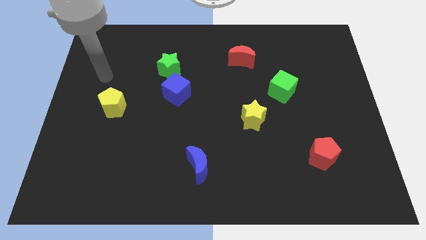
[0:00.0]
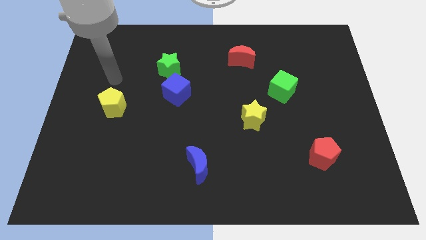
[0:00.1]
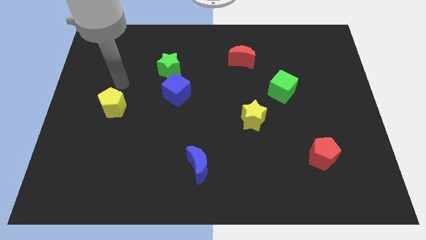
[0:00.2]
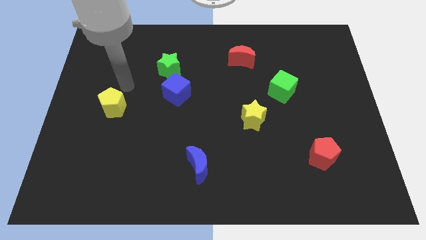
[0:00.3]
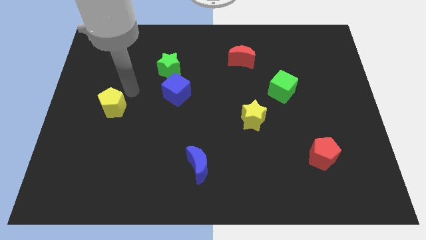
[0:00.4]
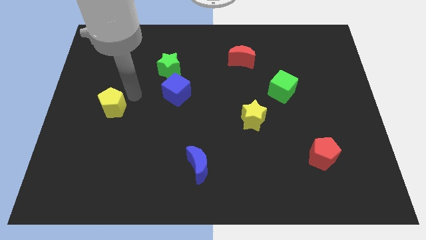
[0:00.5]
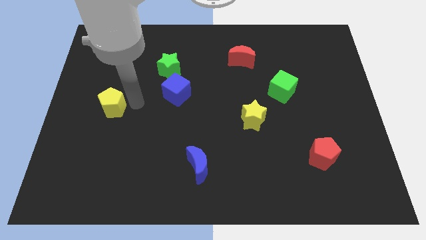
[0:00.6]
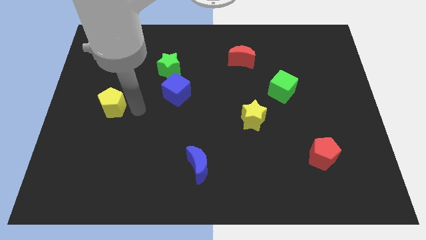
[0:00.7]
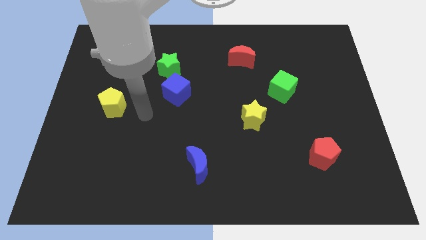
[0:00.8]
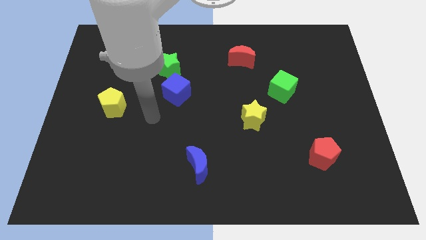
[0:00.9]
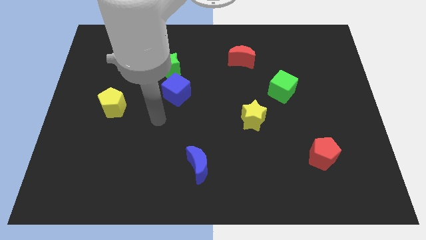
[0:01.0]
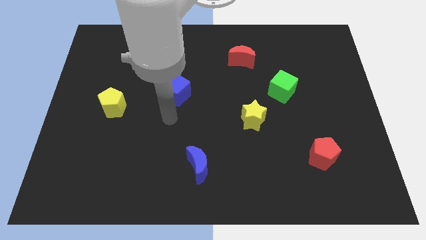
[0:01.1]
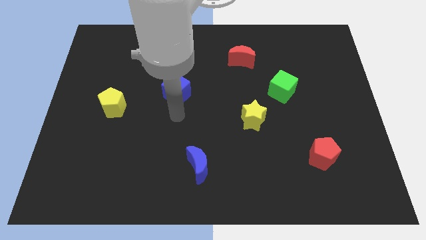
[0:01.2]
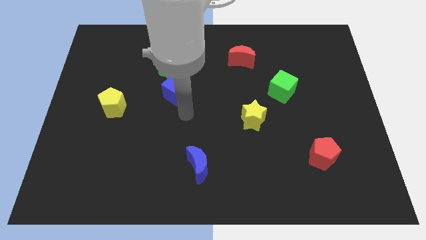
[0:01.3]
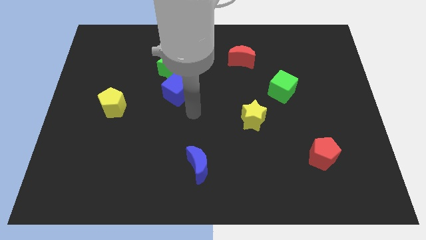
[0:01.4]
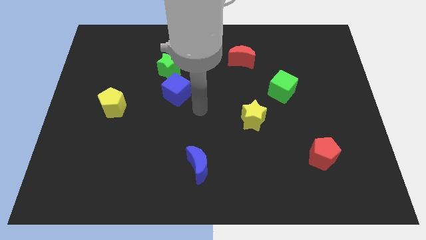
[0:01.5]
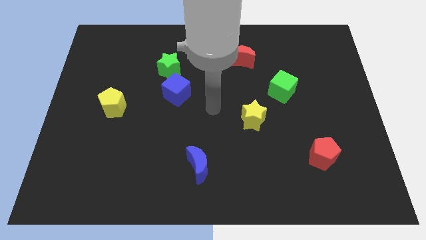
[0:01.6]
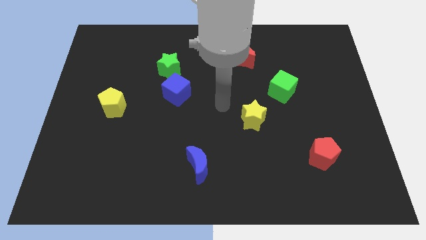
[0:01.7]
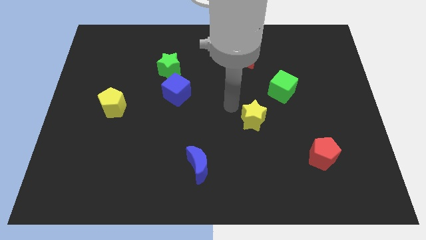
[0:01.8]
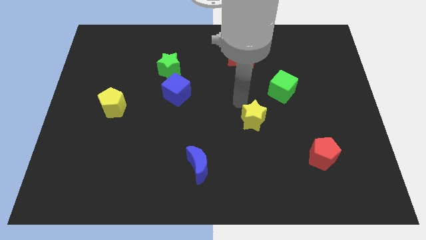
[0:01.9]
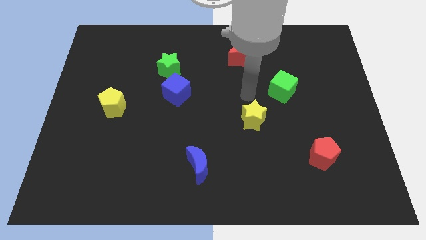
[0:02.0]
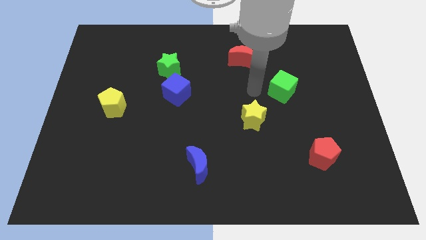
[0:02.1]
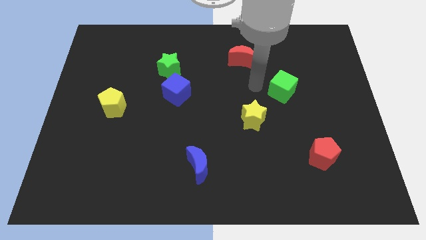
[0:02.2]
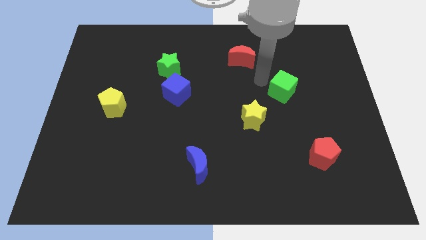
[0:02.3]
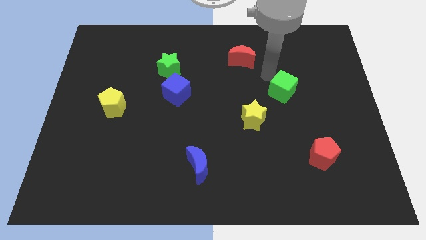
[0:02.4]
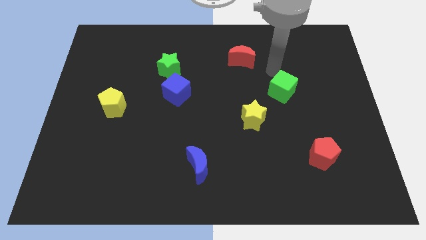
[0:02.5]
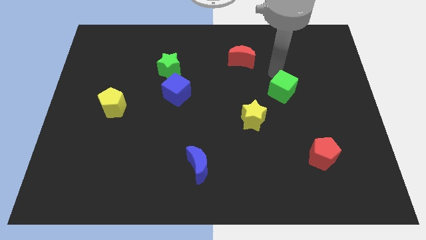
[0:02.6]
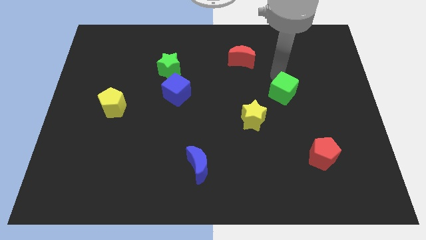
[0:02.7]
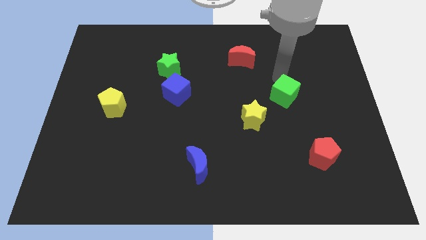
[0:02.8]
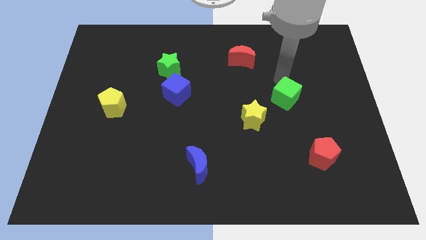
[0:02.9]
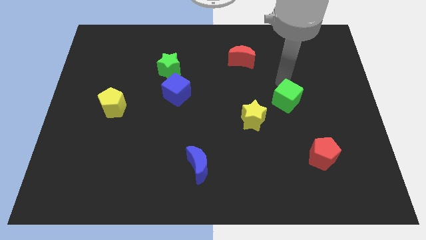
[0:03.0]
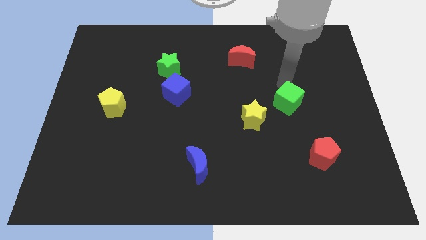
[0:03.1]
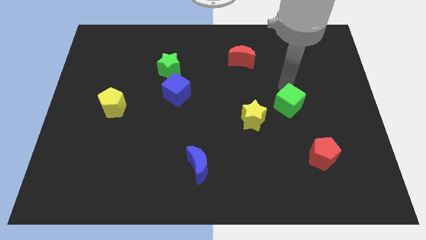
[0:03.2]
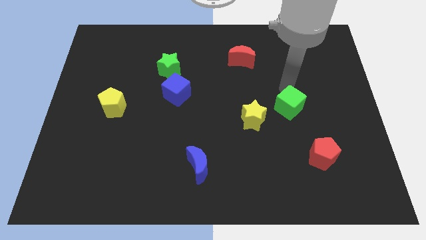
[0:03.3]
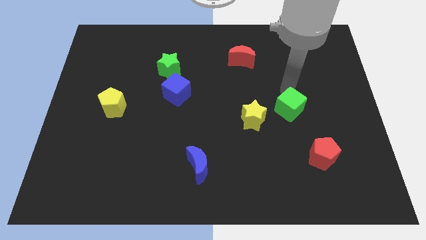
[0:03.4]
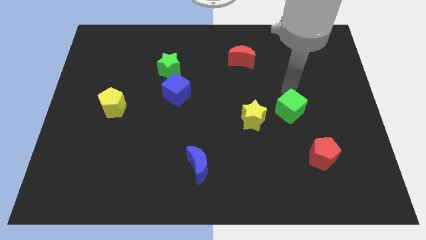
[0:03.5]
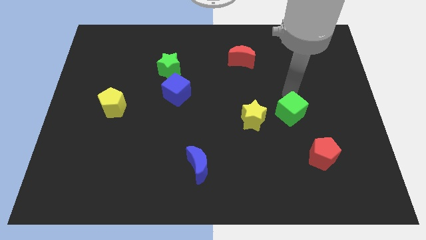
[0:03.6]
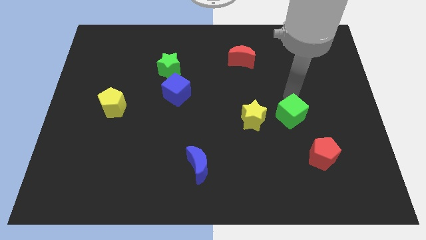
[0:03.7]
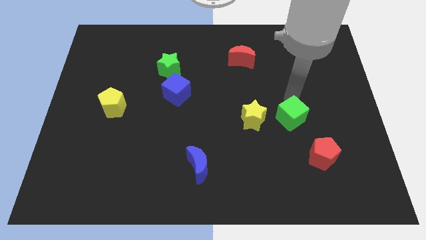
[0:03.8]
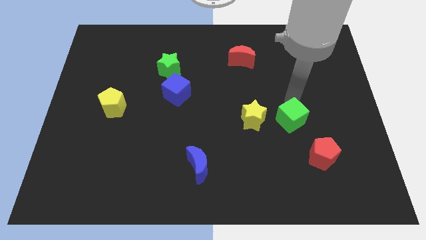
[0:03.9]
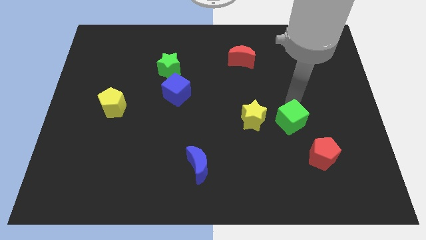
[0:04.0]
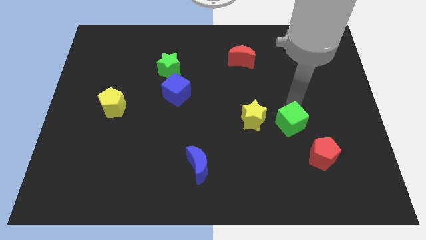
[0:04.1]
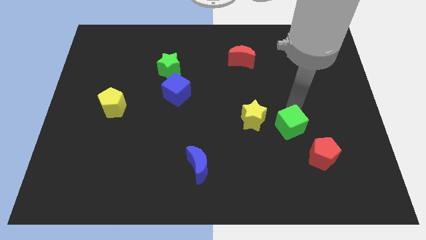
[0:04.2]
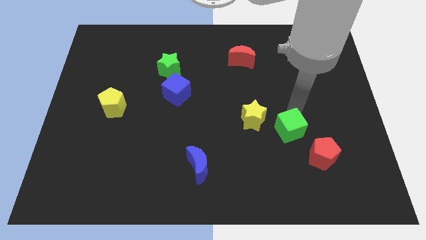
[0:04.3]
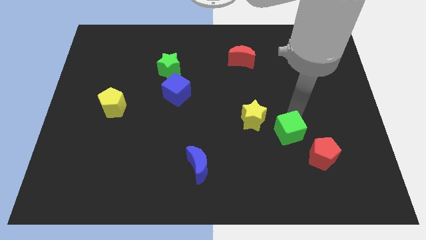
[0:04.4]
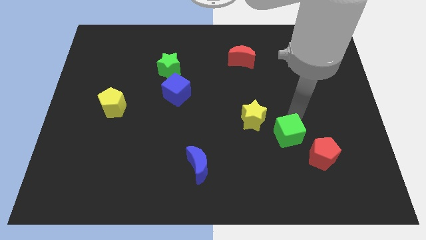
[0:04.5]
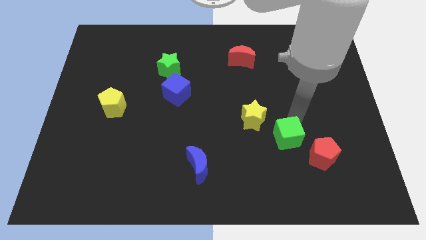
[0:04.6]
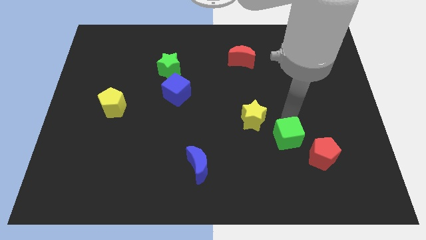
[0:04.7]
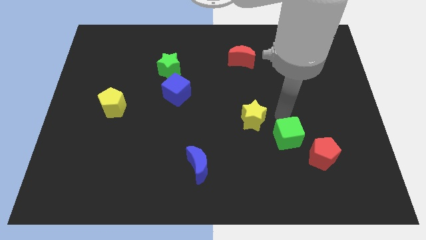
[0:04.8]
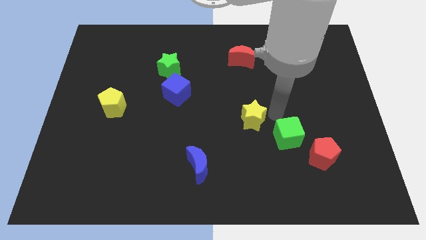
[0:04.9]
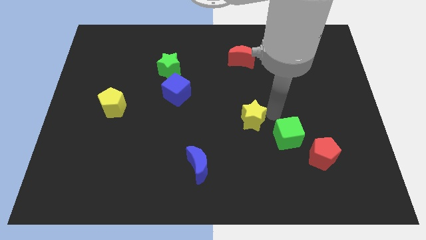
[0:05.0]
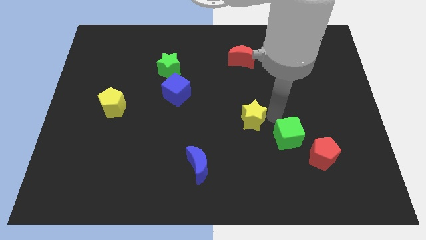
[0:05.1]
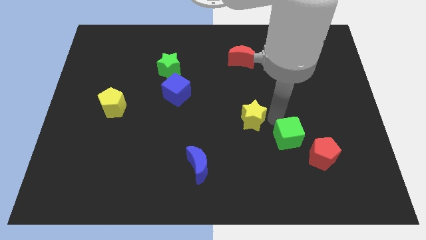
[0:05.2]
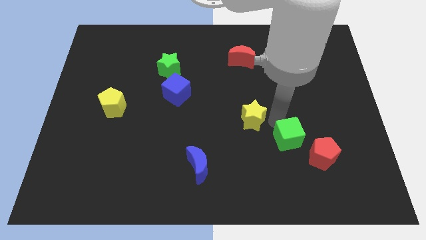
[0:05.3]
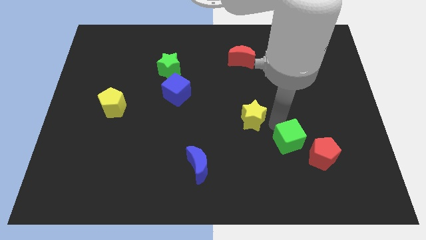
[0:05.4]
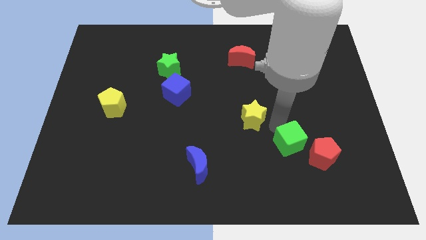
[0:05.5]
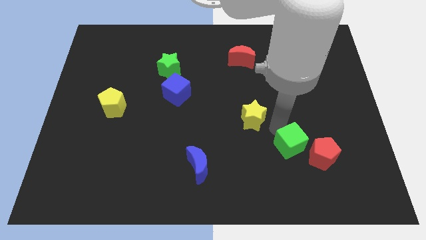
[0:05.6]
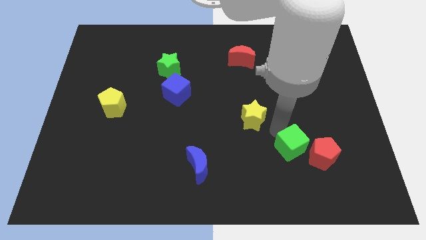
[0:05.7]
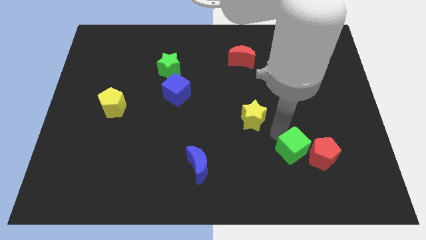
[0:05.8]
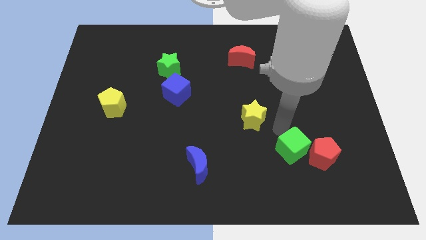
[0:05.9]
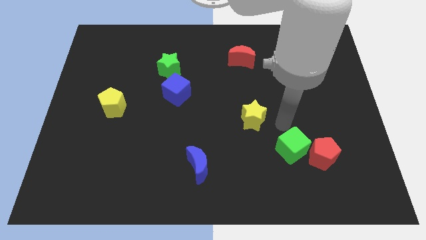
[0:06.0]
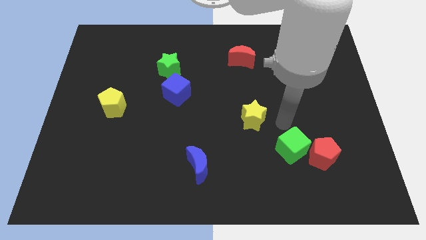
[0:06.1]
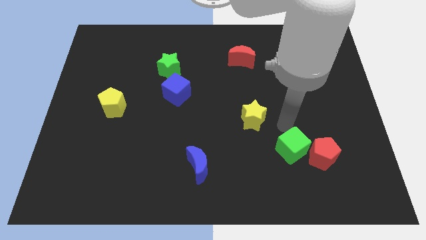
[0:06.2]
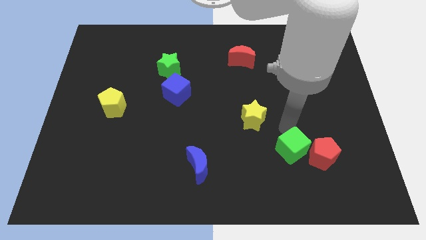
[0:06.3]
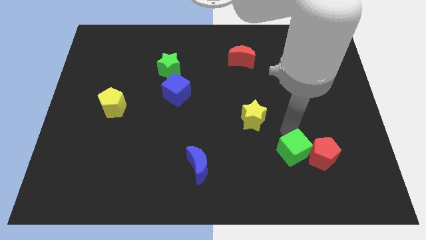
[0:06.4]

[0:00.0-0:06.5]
move the green cube diagonally down and to the left of the red pentagon

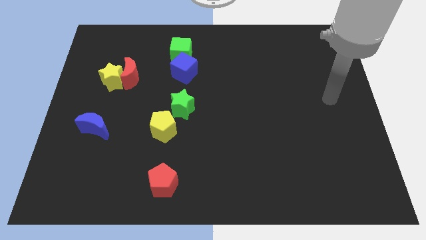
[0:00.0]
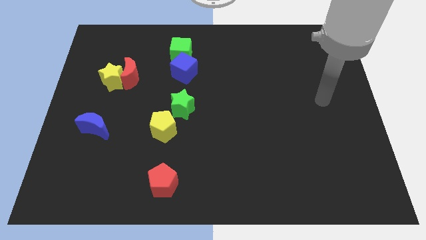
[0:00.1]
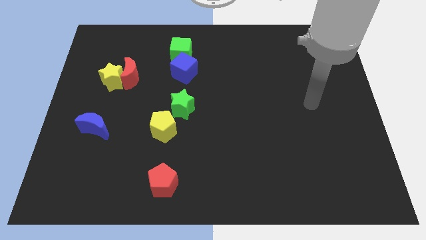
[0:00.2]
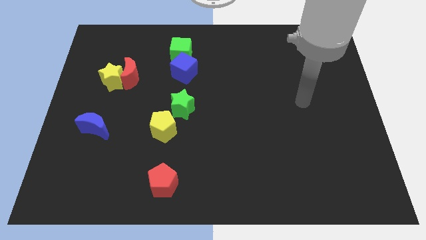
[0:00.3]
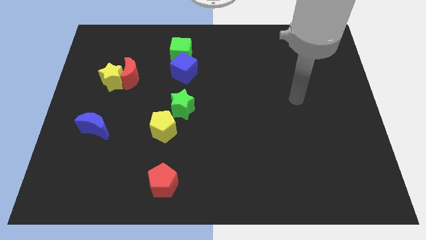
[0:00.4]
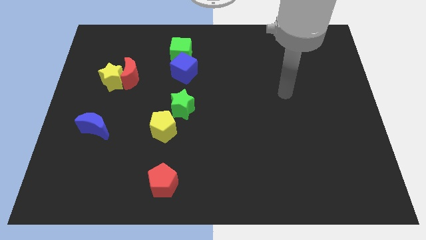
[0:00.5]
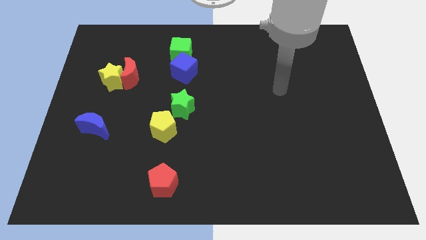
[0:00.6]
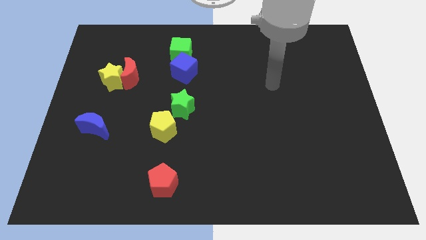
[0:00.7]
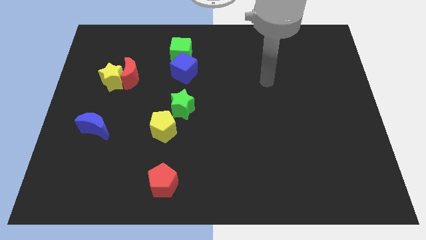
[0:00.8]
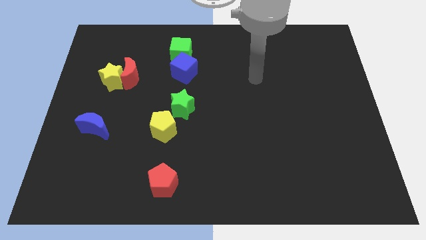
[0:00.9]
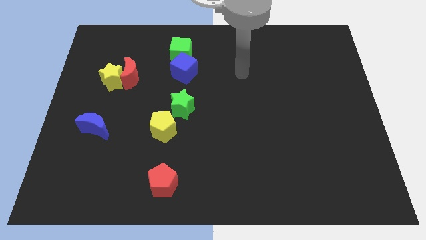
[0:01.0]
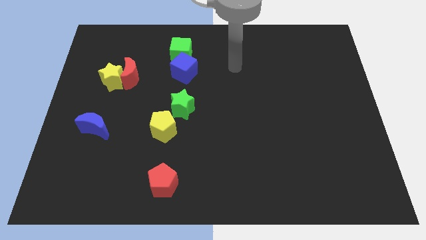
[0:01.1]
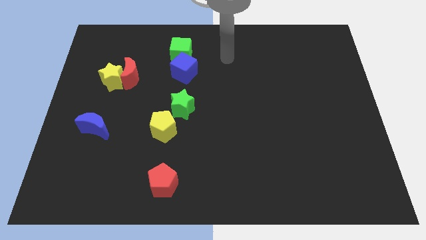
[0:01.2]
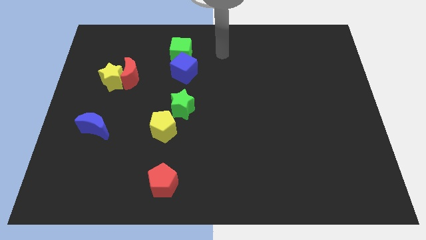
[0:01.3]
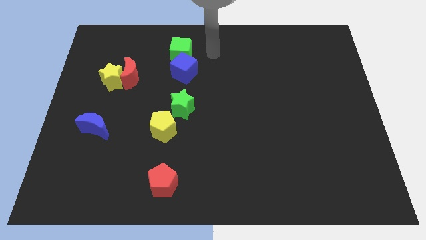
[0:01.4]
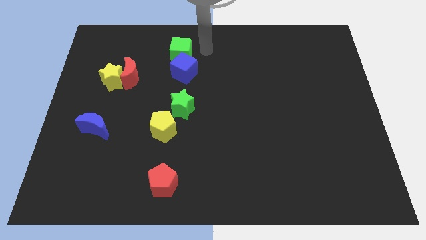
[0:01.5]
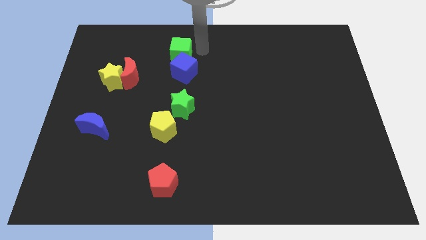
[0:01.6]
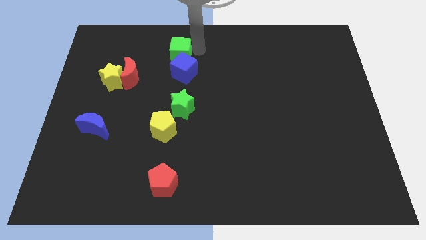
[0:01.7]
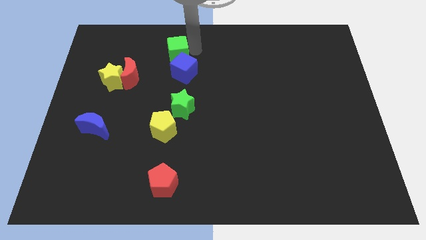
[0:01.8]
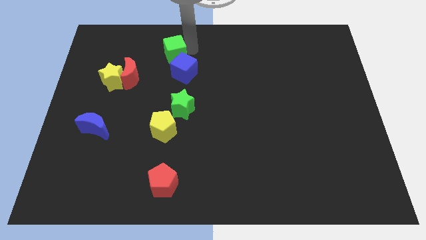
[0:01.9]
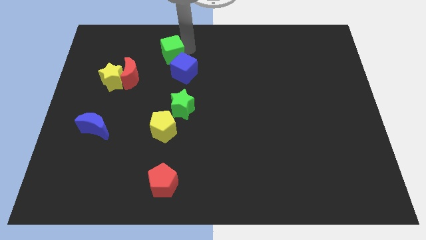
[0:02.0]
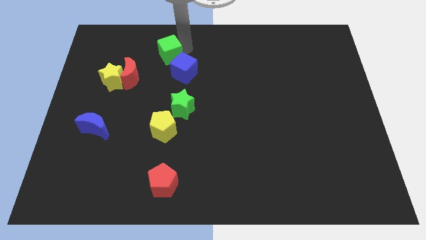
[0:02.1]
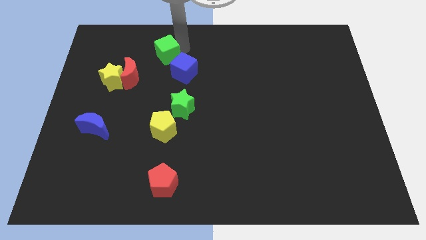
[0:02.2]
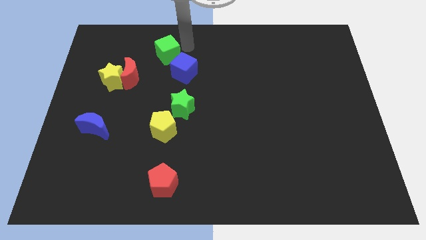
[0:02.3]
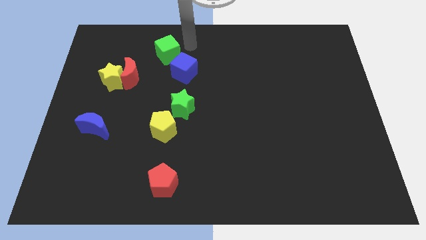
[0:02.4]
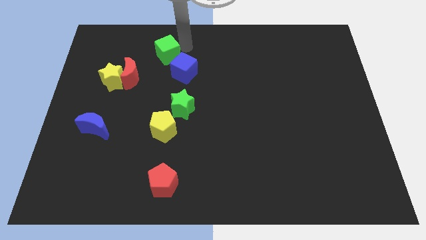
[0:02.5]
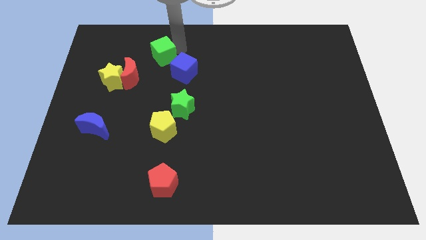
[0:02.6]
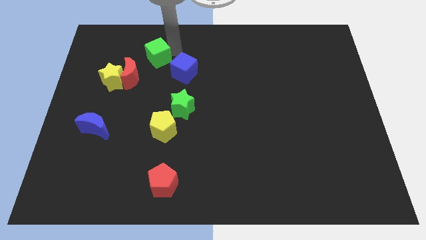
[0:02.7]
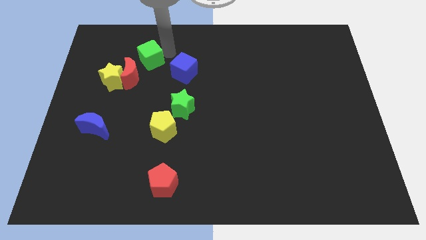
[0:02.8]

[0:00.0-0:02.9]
move the green cube to the top right side of the yellow star
